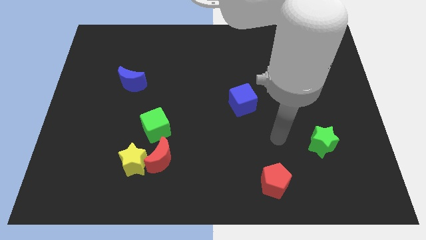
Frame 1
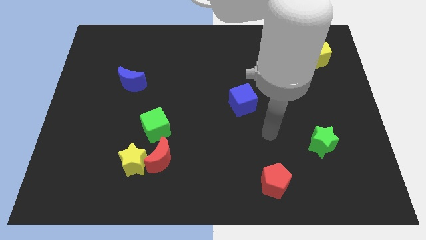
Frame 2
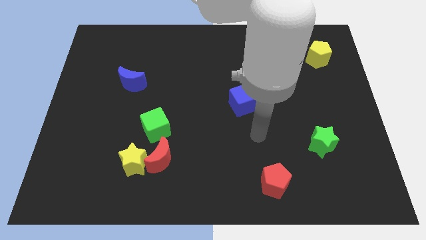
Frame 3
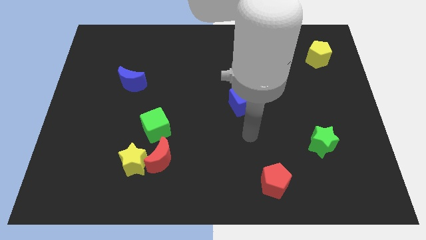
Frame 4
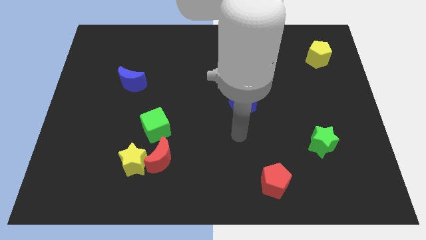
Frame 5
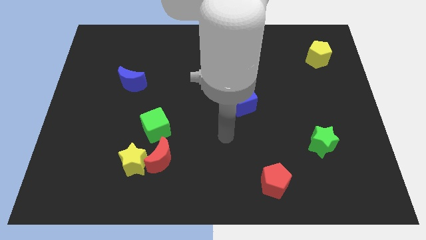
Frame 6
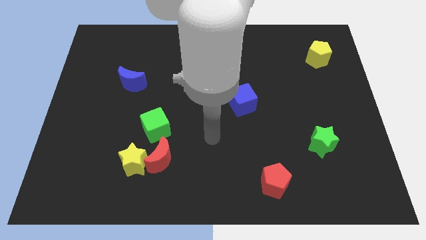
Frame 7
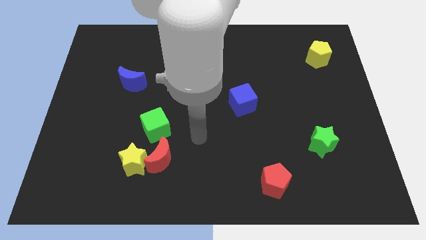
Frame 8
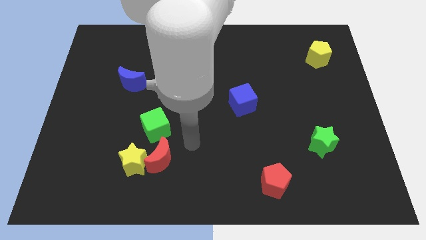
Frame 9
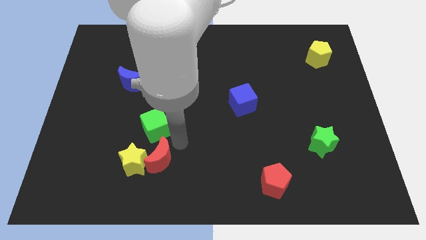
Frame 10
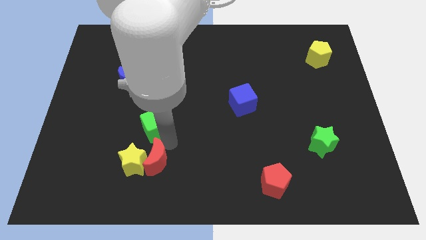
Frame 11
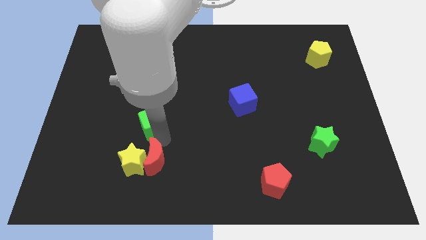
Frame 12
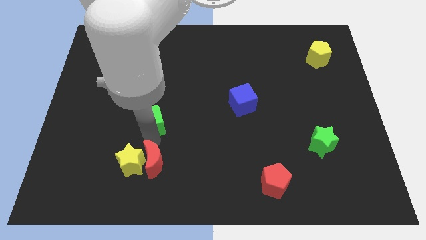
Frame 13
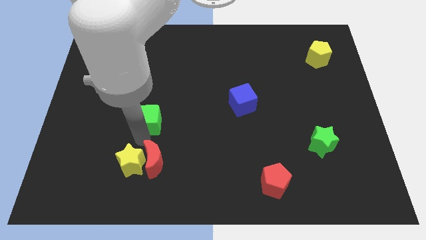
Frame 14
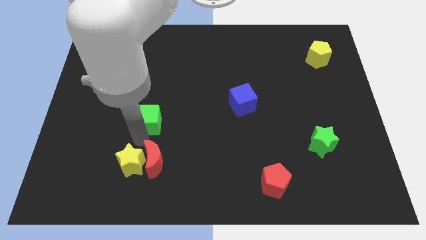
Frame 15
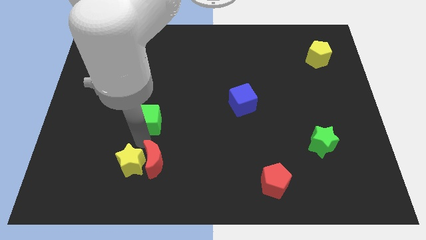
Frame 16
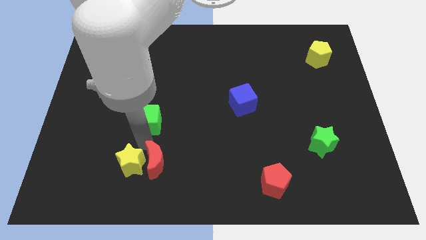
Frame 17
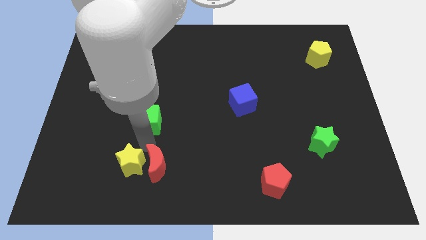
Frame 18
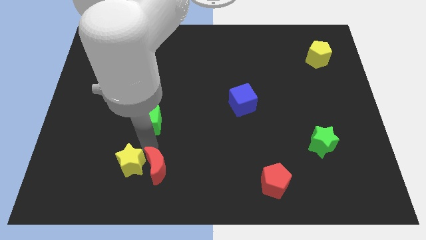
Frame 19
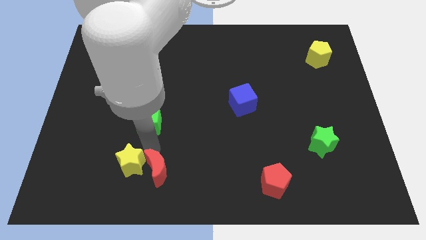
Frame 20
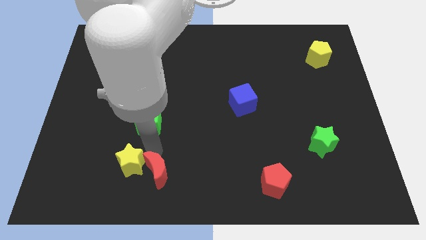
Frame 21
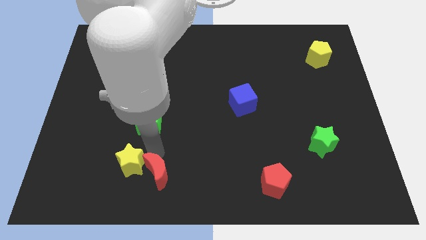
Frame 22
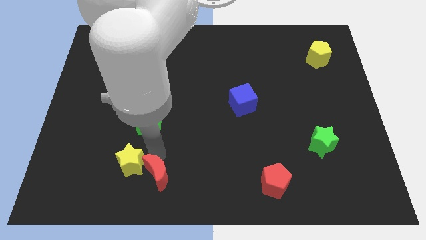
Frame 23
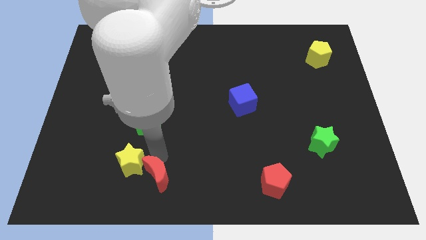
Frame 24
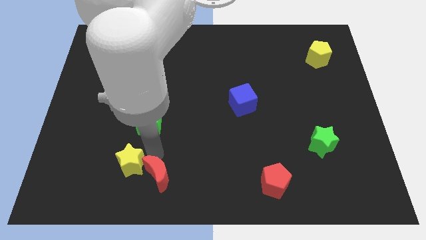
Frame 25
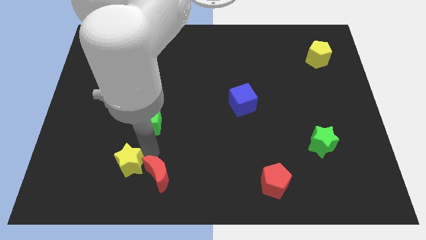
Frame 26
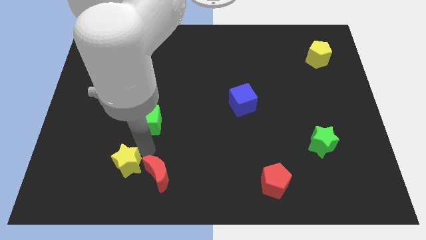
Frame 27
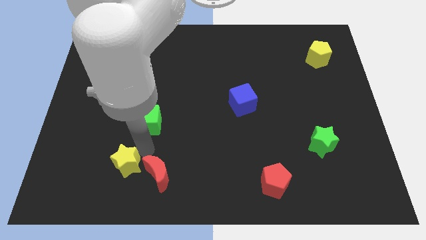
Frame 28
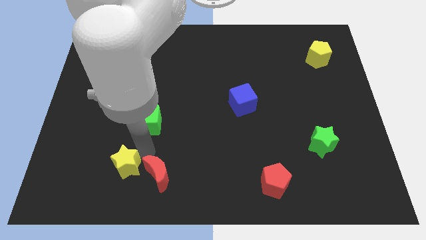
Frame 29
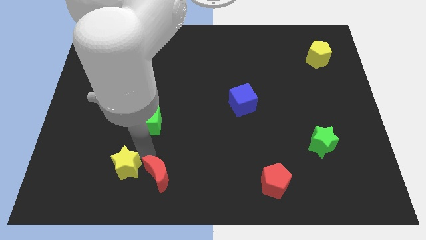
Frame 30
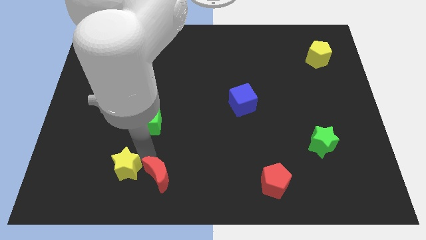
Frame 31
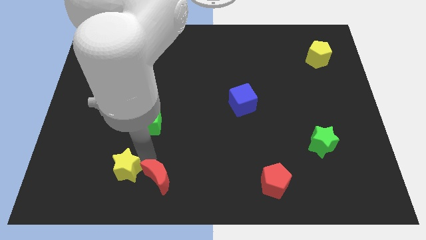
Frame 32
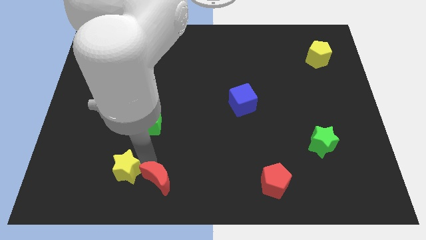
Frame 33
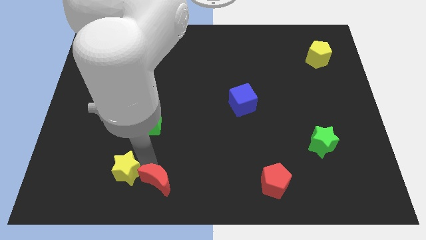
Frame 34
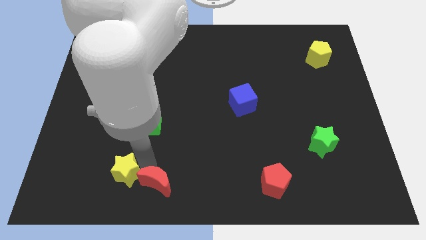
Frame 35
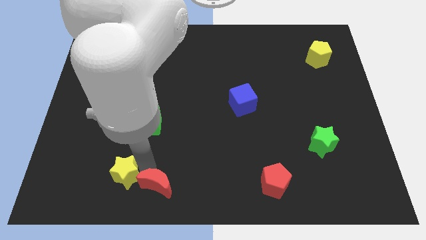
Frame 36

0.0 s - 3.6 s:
pull the red moon apart from the yellow star and green cube

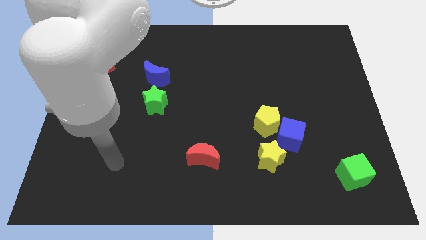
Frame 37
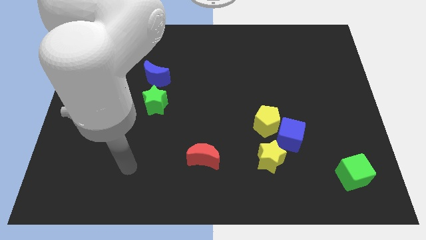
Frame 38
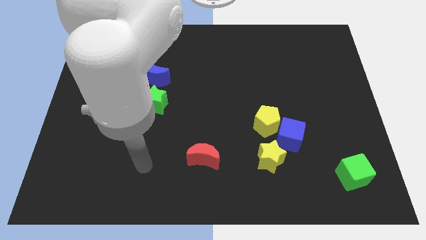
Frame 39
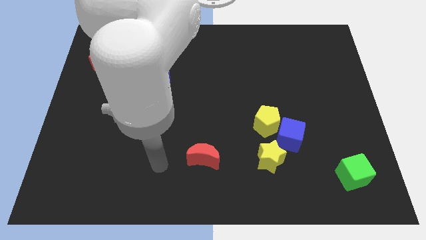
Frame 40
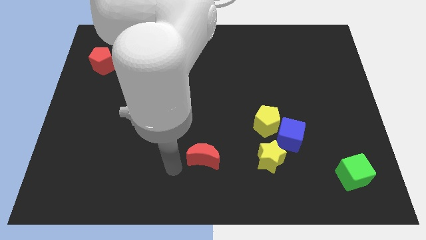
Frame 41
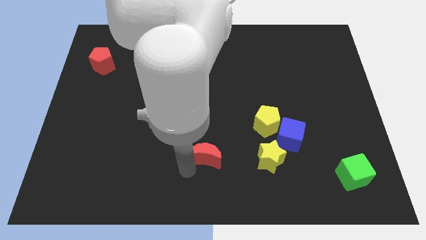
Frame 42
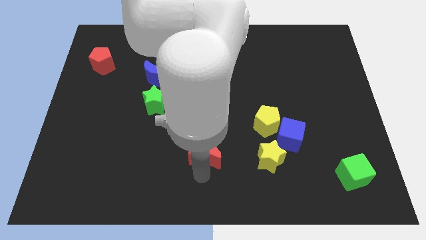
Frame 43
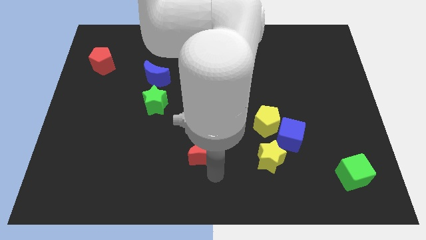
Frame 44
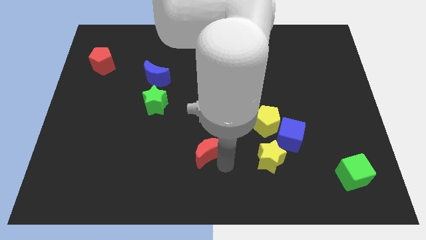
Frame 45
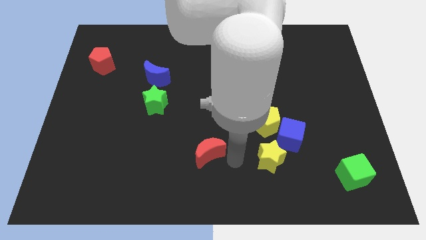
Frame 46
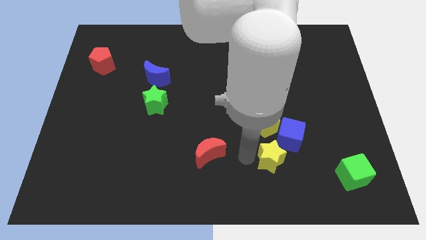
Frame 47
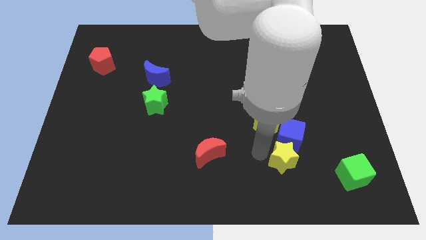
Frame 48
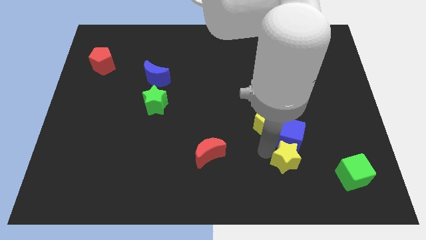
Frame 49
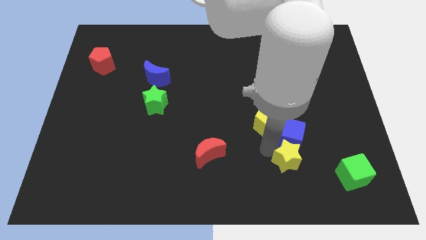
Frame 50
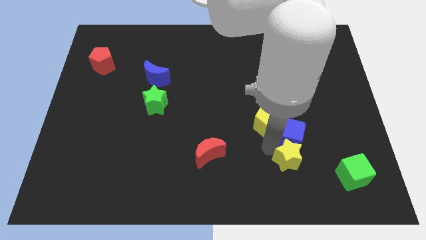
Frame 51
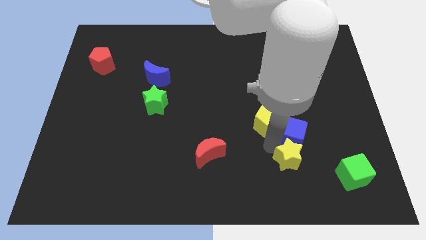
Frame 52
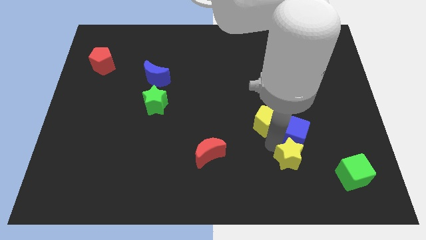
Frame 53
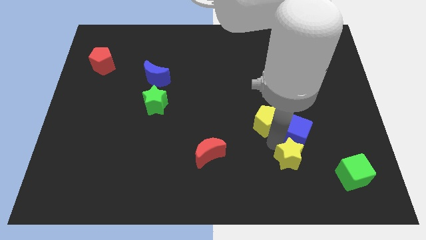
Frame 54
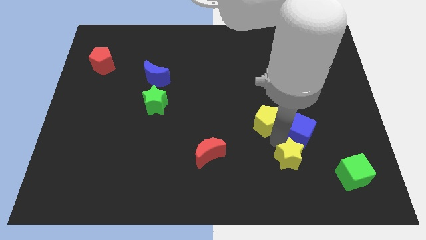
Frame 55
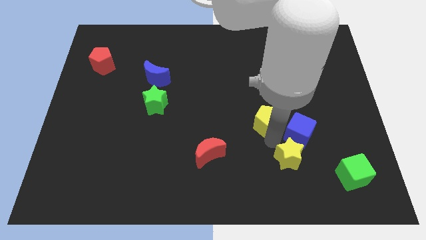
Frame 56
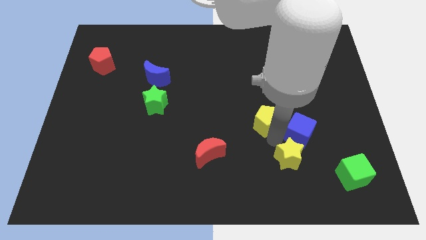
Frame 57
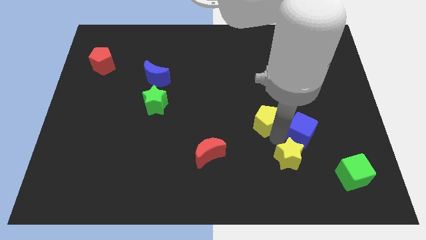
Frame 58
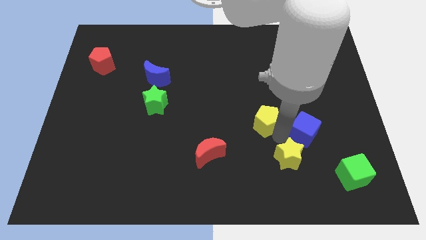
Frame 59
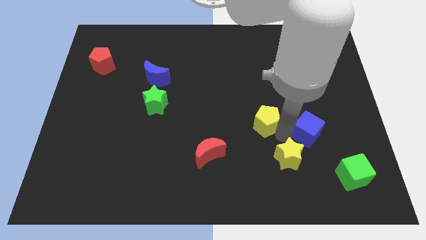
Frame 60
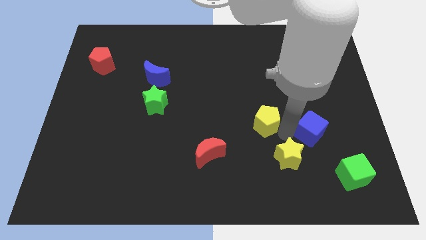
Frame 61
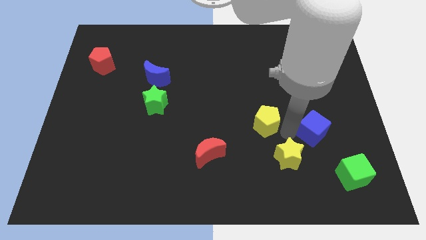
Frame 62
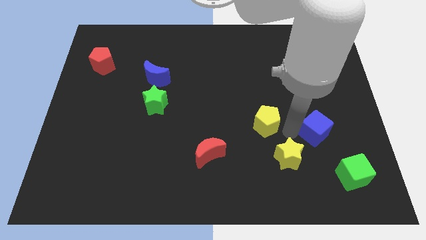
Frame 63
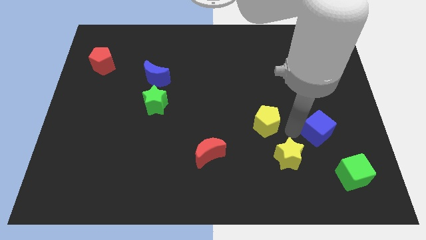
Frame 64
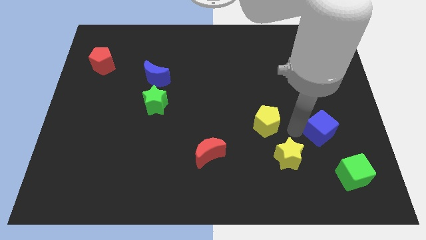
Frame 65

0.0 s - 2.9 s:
pull the blue cube apart from the yellow pentagon and yellow star

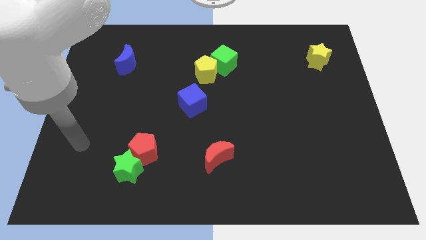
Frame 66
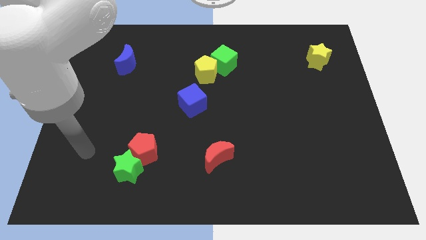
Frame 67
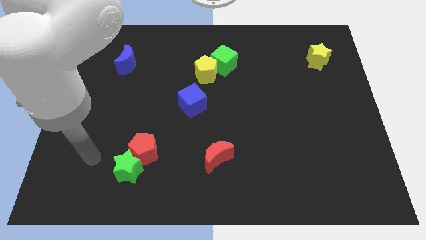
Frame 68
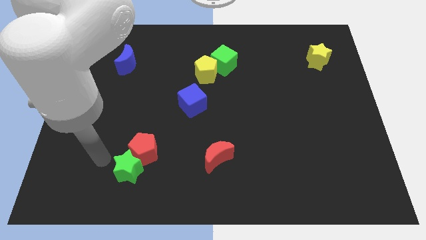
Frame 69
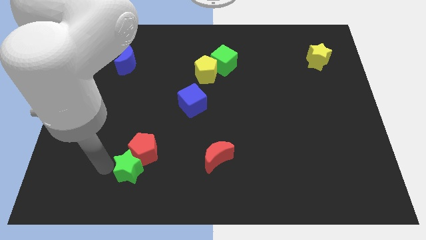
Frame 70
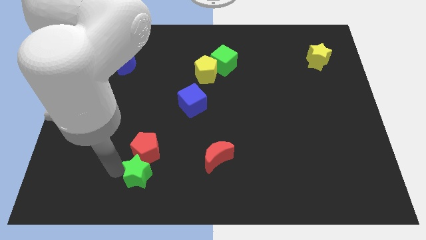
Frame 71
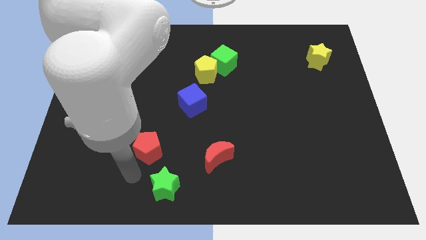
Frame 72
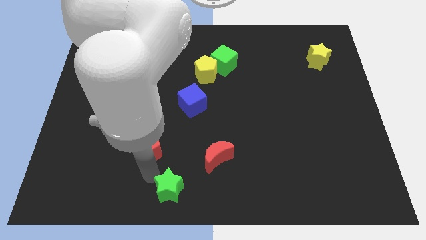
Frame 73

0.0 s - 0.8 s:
separate the red pentagon from the green star

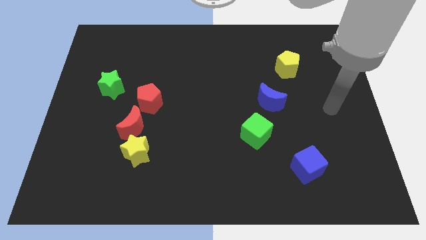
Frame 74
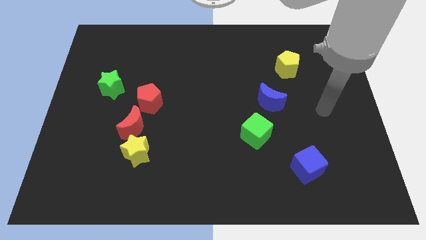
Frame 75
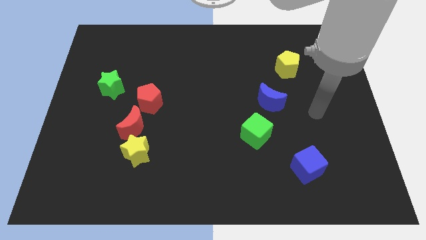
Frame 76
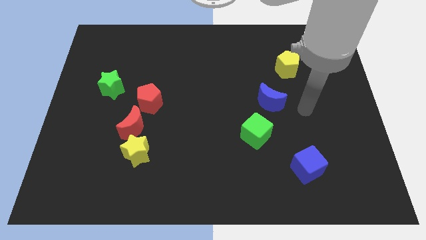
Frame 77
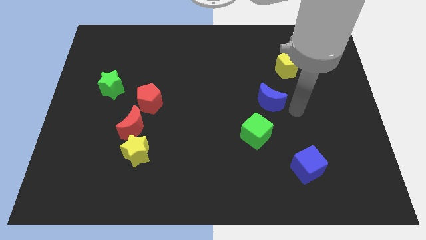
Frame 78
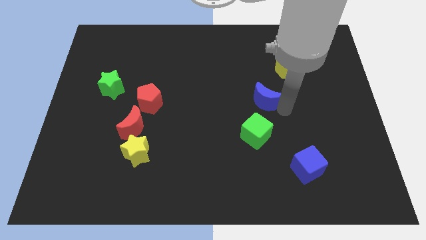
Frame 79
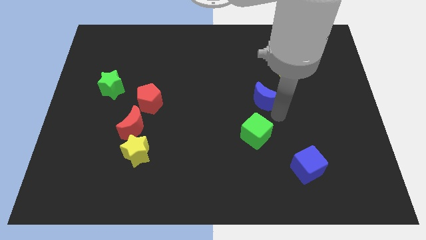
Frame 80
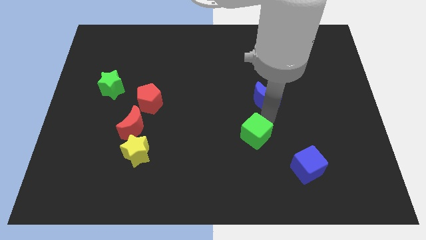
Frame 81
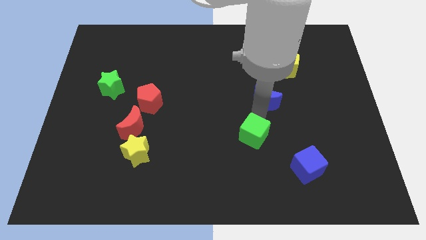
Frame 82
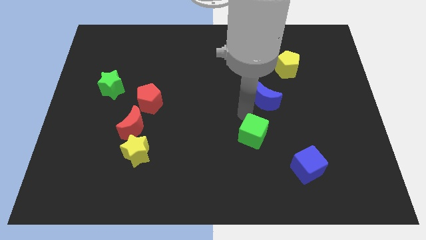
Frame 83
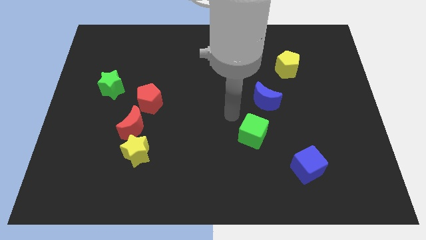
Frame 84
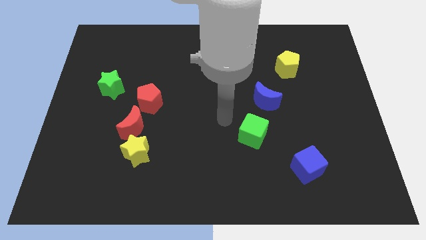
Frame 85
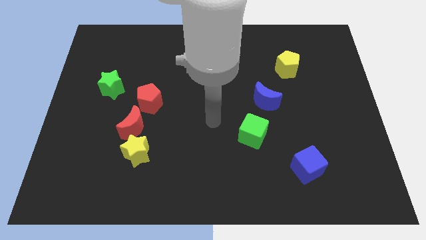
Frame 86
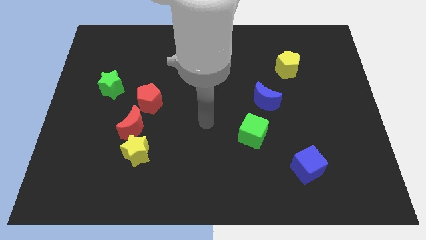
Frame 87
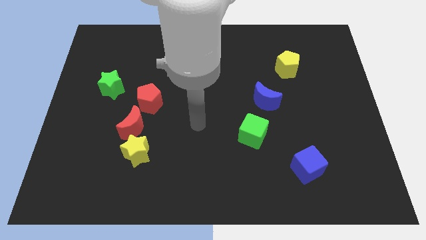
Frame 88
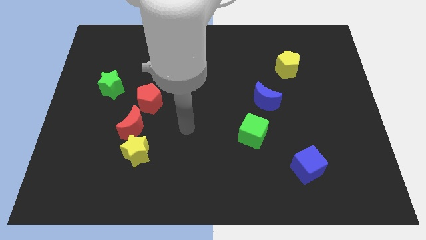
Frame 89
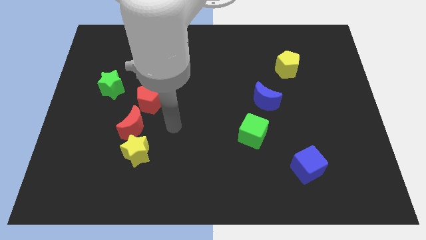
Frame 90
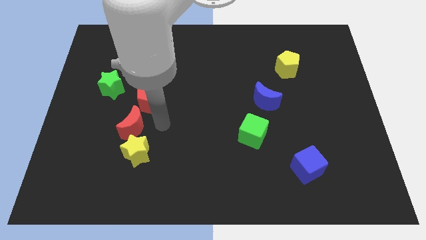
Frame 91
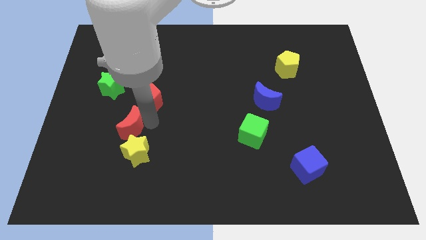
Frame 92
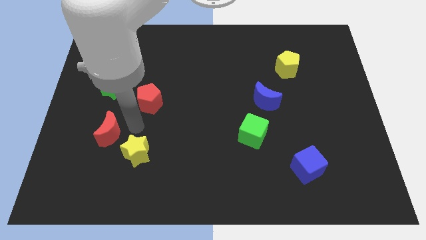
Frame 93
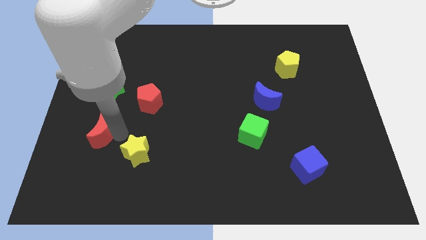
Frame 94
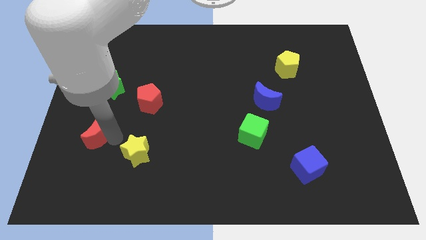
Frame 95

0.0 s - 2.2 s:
pull the yellow star apart from the red moon
